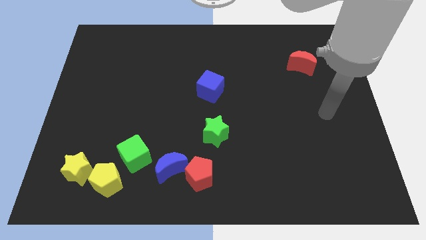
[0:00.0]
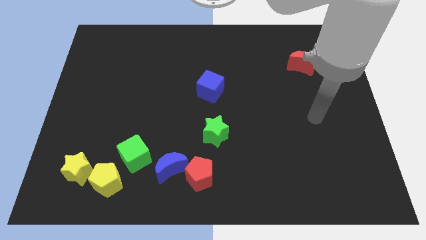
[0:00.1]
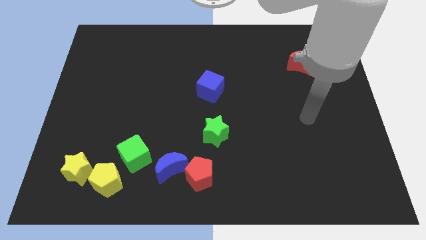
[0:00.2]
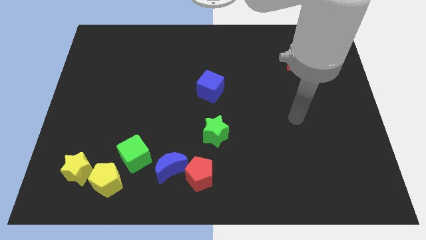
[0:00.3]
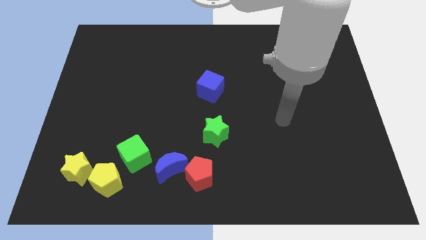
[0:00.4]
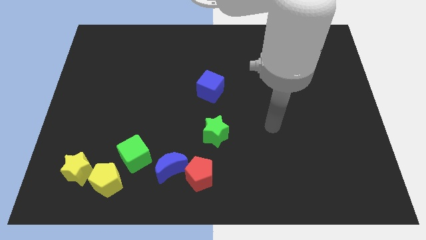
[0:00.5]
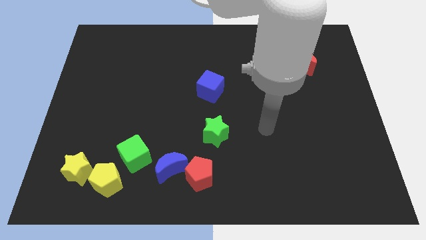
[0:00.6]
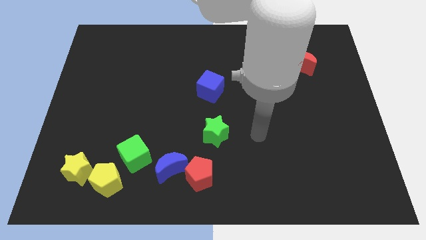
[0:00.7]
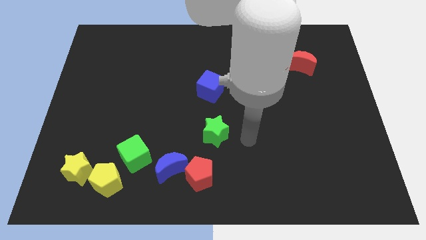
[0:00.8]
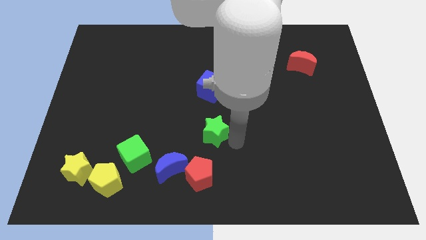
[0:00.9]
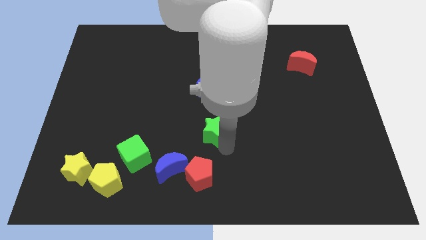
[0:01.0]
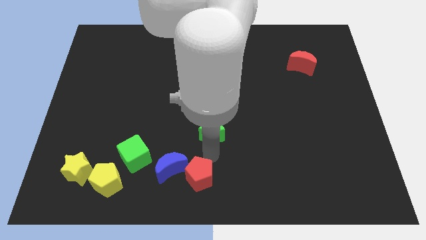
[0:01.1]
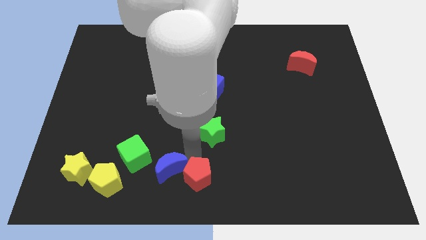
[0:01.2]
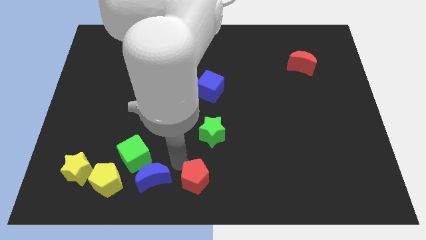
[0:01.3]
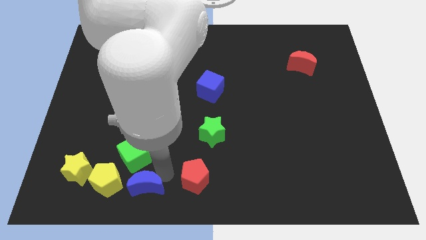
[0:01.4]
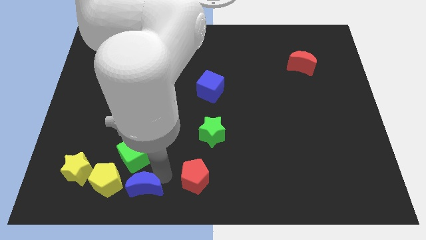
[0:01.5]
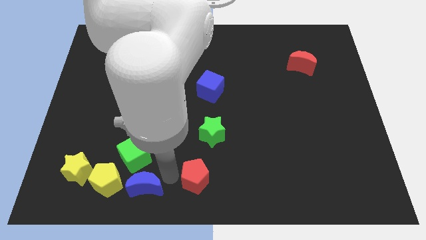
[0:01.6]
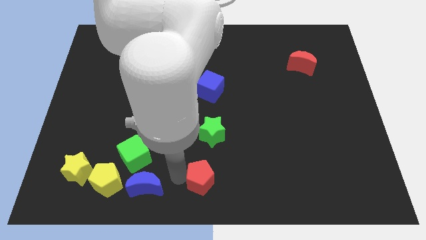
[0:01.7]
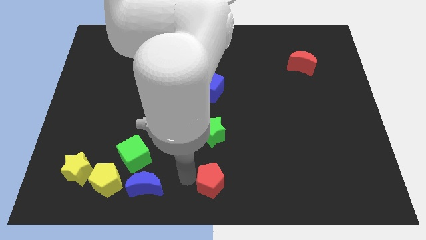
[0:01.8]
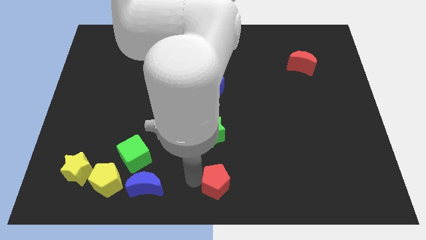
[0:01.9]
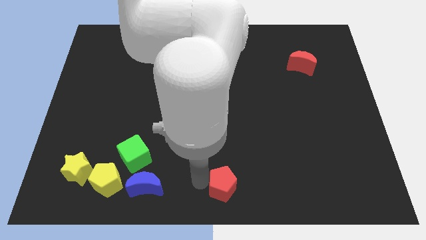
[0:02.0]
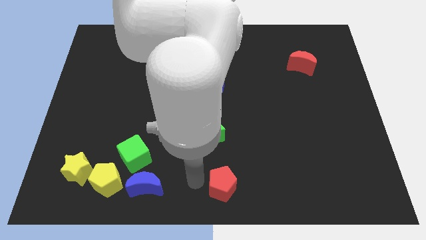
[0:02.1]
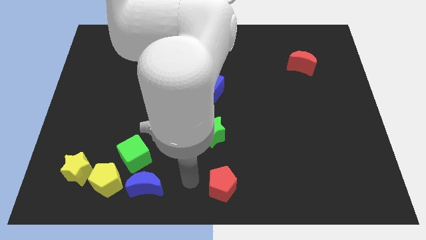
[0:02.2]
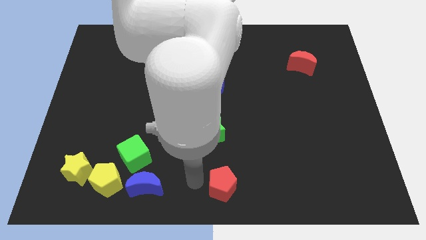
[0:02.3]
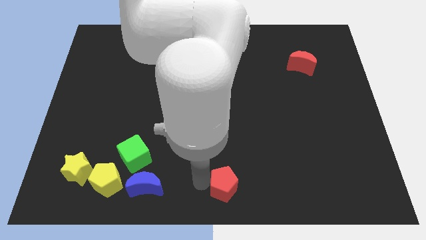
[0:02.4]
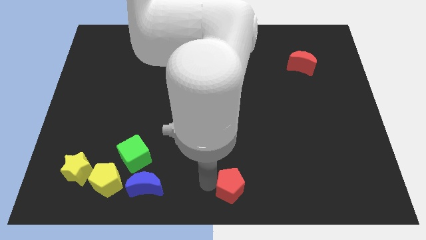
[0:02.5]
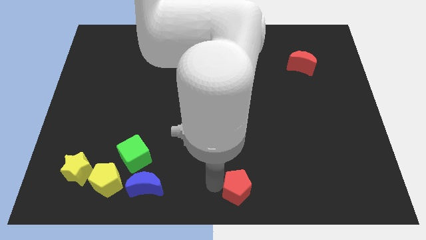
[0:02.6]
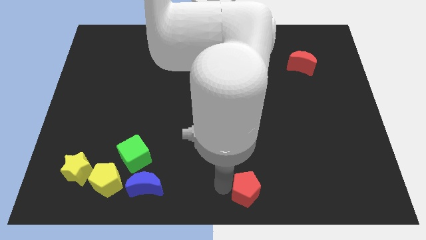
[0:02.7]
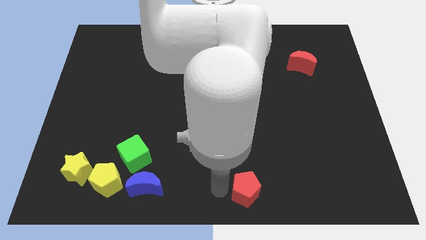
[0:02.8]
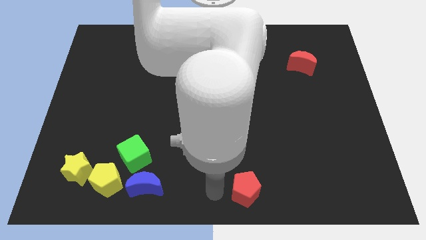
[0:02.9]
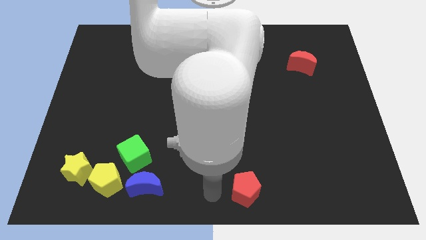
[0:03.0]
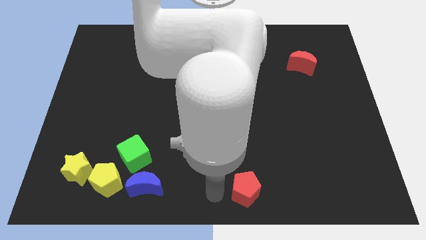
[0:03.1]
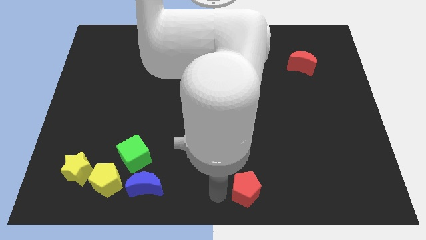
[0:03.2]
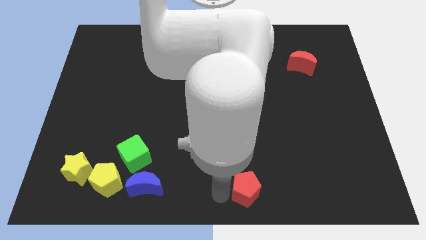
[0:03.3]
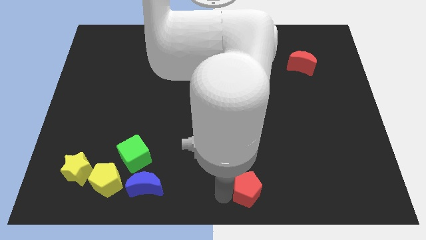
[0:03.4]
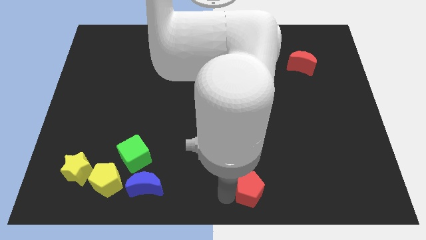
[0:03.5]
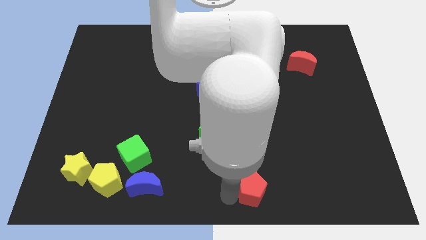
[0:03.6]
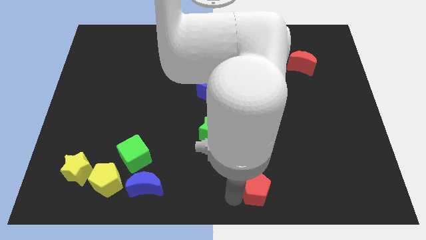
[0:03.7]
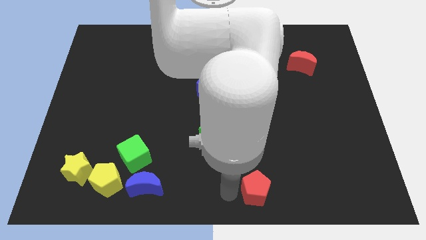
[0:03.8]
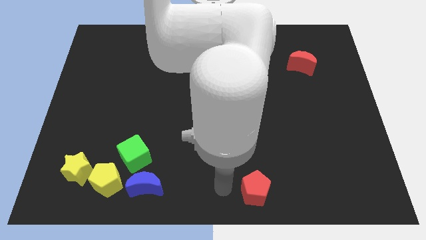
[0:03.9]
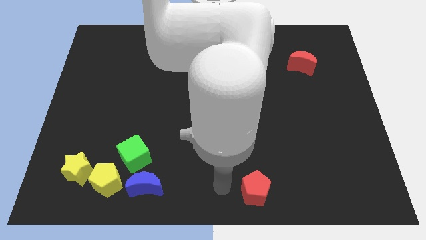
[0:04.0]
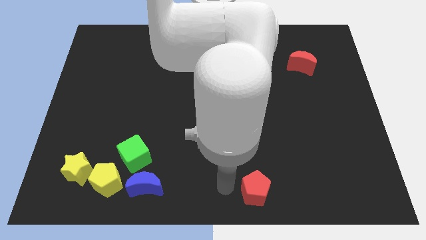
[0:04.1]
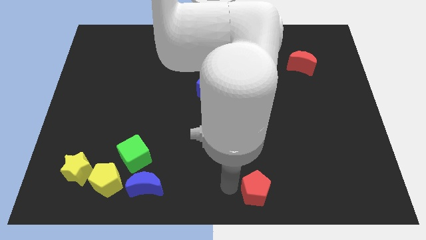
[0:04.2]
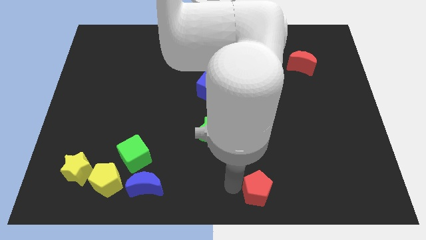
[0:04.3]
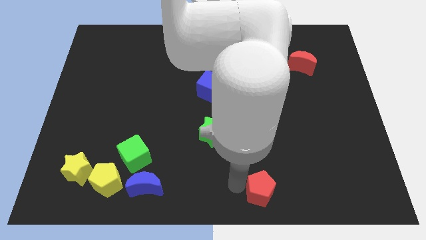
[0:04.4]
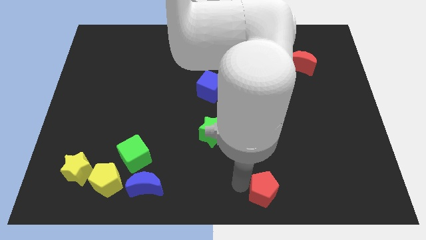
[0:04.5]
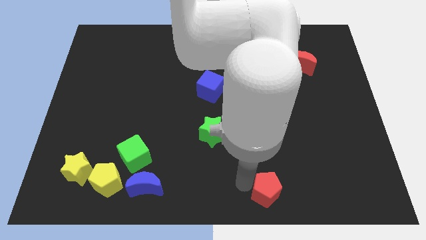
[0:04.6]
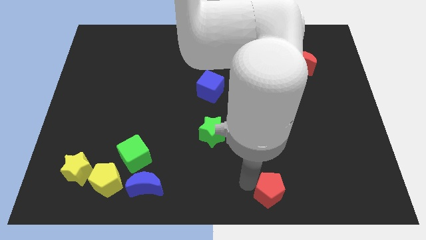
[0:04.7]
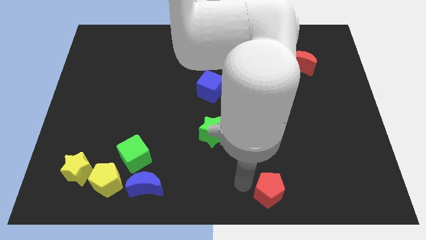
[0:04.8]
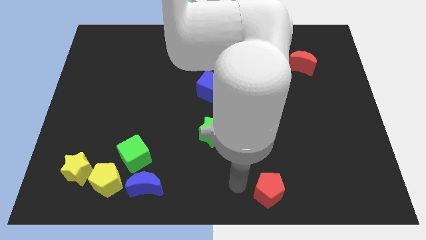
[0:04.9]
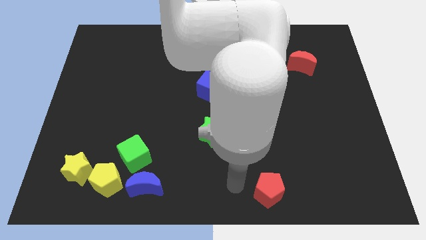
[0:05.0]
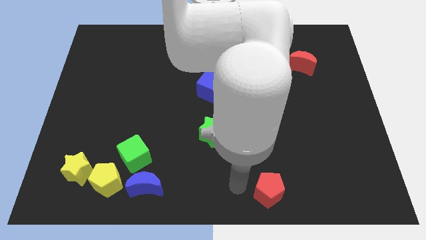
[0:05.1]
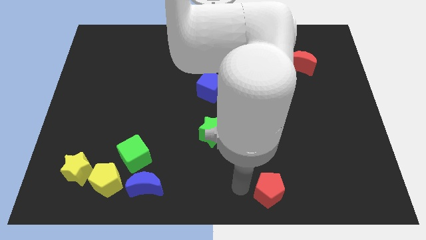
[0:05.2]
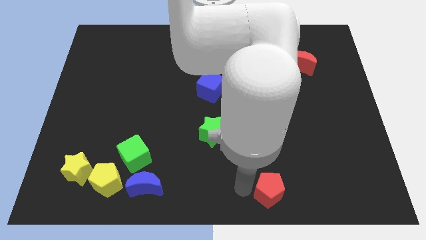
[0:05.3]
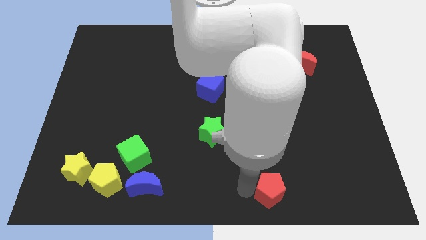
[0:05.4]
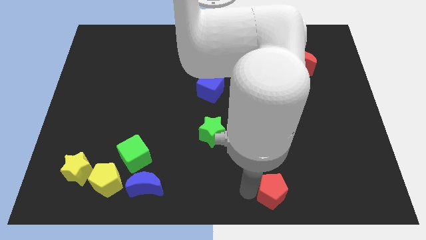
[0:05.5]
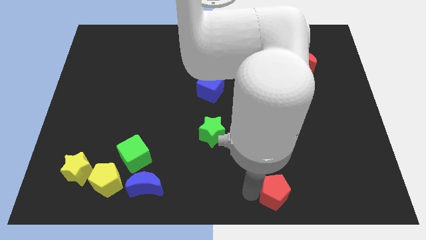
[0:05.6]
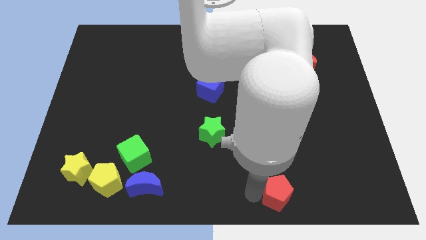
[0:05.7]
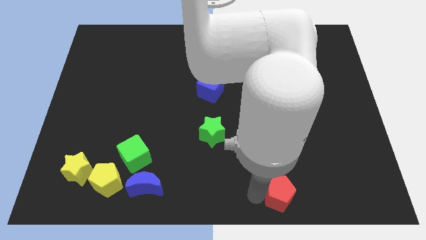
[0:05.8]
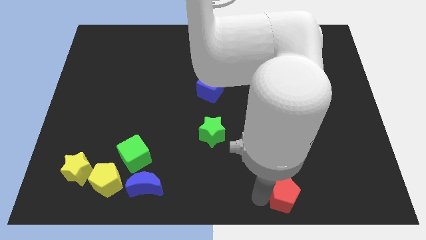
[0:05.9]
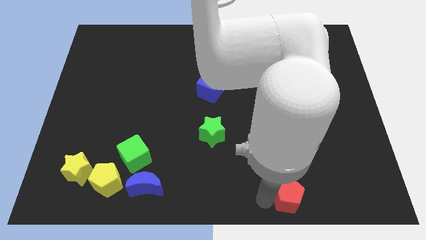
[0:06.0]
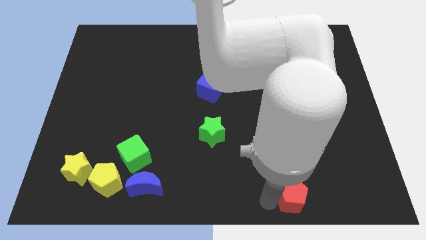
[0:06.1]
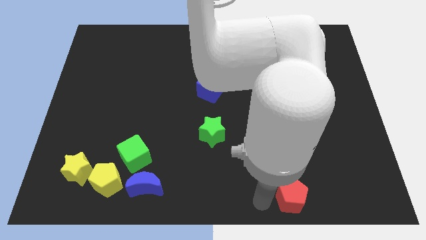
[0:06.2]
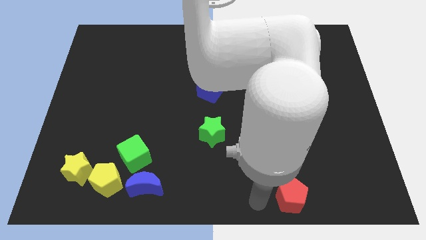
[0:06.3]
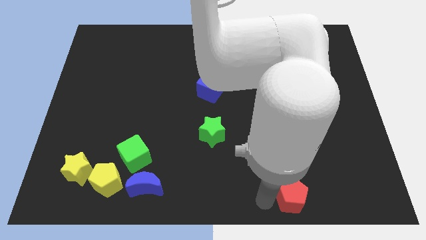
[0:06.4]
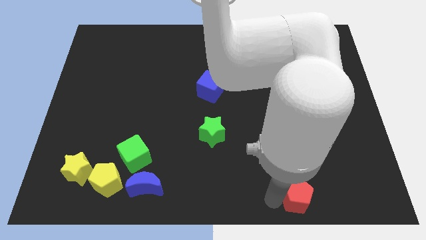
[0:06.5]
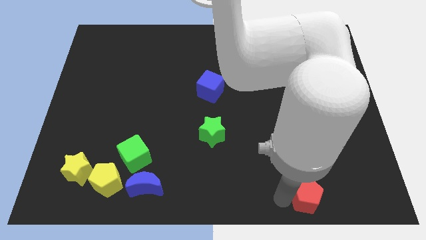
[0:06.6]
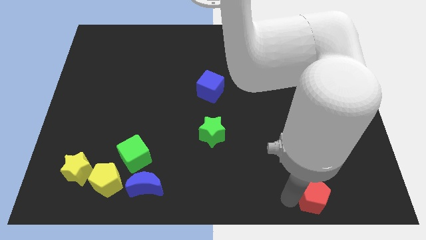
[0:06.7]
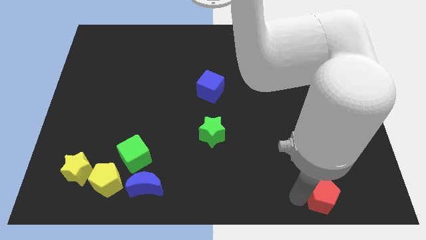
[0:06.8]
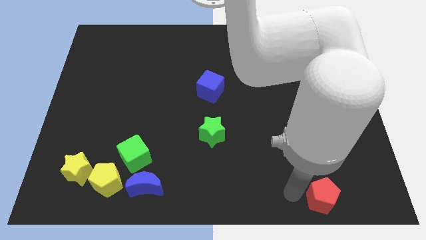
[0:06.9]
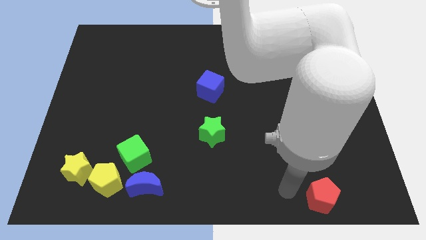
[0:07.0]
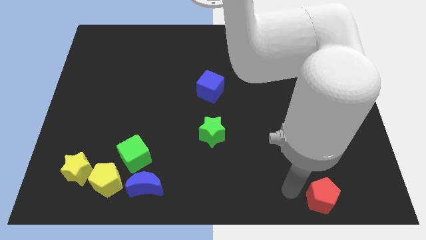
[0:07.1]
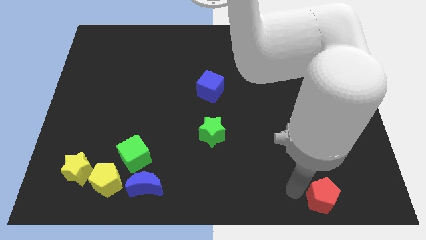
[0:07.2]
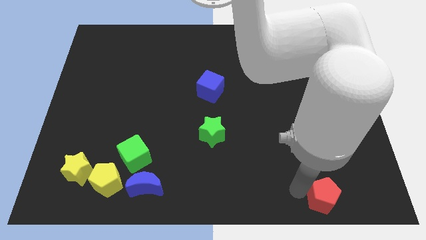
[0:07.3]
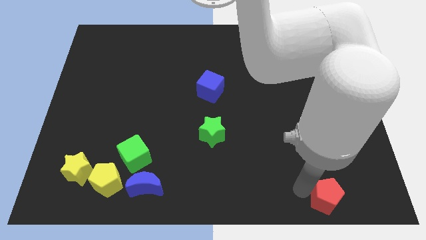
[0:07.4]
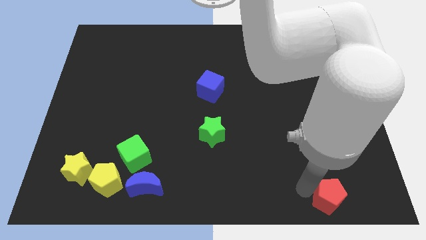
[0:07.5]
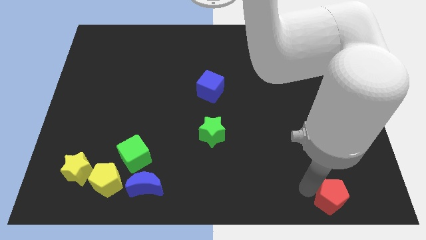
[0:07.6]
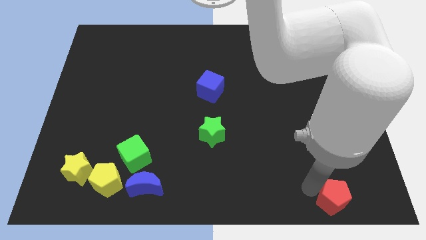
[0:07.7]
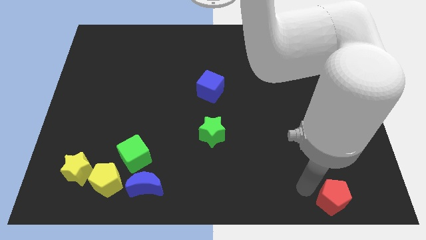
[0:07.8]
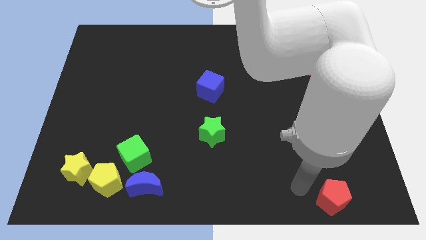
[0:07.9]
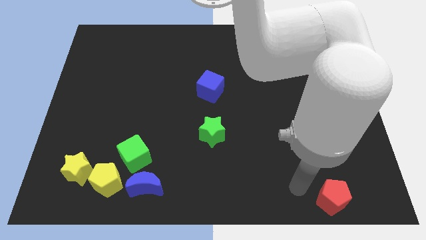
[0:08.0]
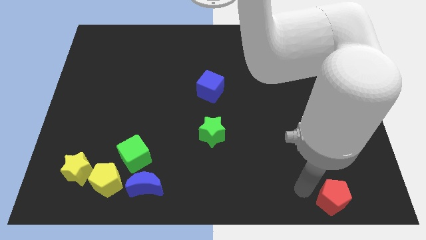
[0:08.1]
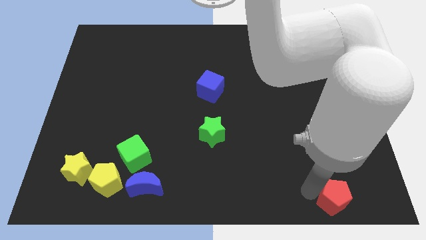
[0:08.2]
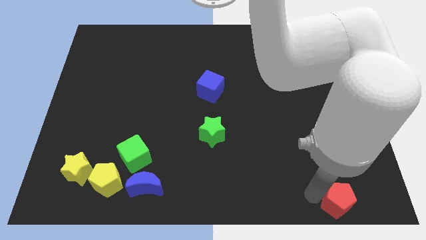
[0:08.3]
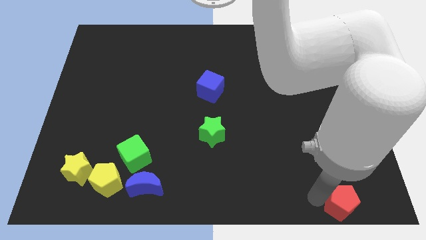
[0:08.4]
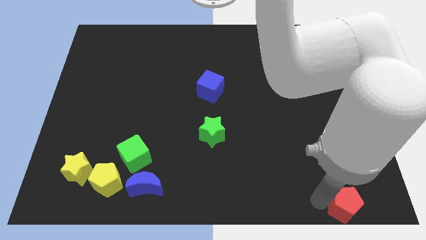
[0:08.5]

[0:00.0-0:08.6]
push the red pentagon to the bottom right
